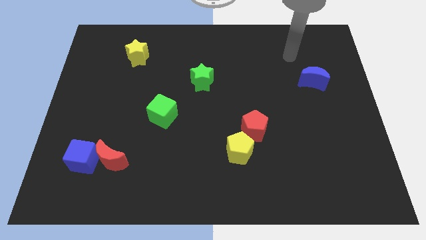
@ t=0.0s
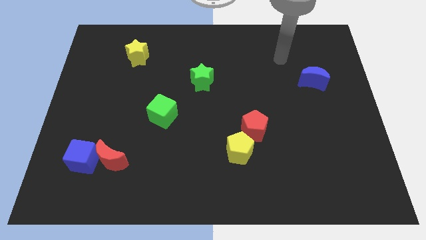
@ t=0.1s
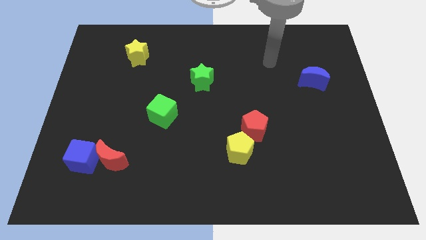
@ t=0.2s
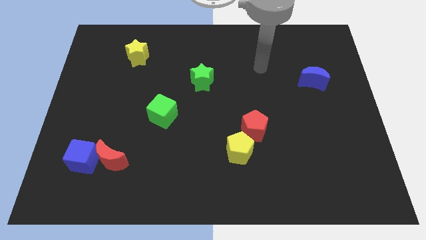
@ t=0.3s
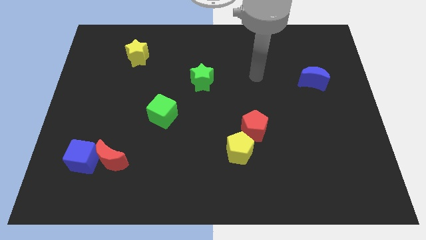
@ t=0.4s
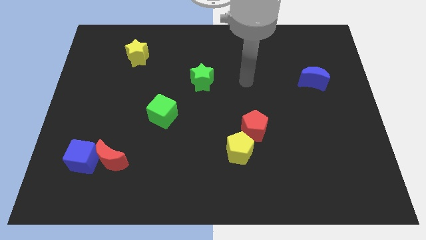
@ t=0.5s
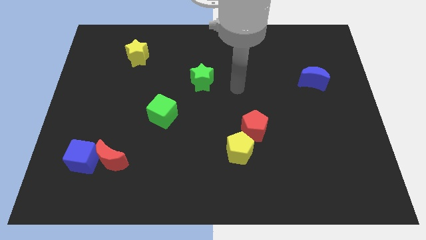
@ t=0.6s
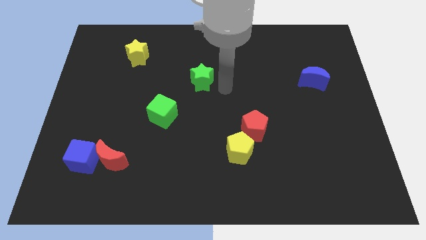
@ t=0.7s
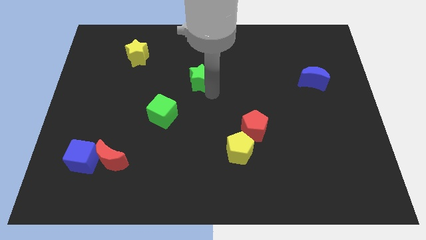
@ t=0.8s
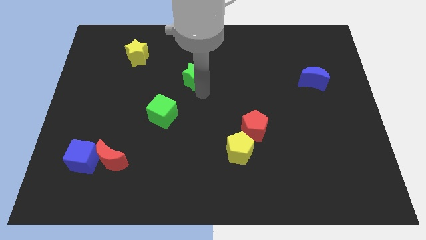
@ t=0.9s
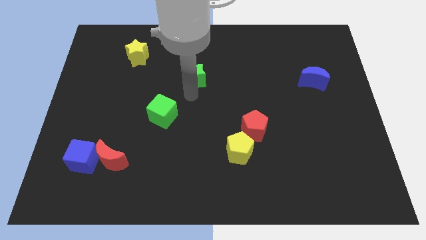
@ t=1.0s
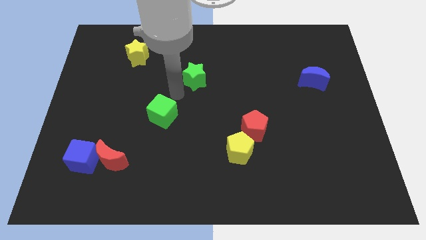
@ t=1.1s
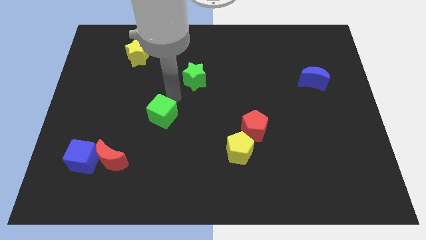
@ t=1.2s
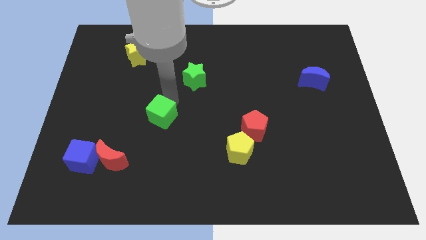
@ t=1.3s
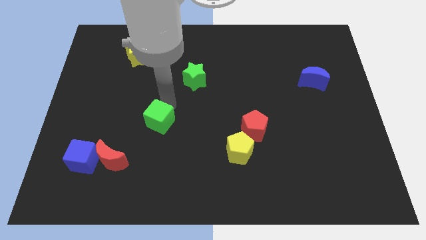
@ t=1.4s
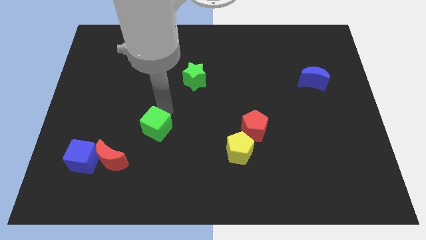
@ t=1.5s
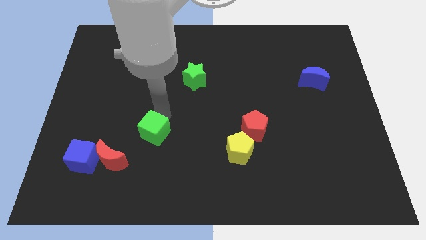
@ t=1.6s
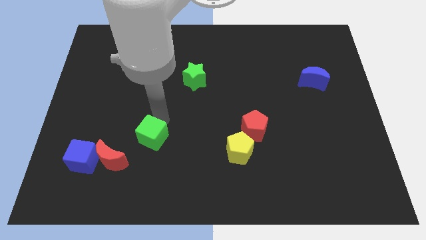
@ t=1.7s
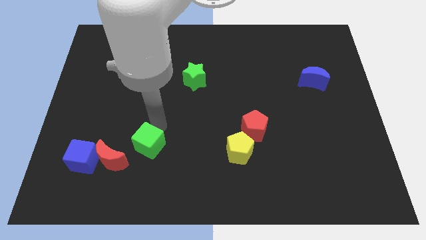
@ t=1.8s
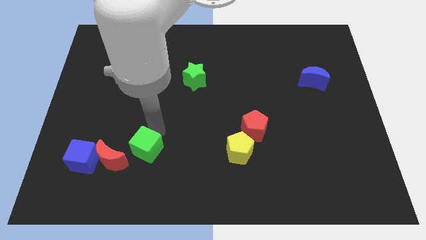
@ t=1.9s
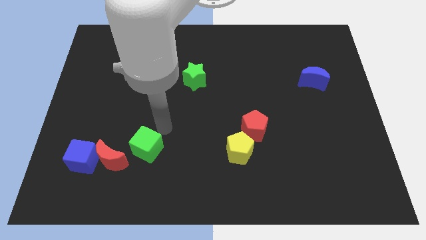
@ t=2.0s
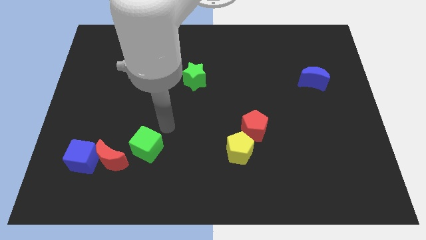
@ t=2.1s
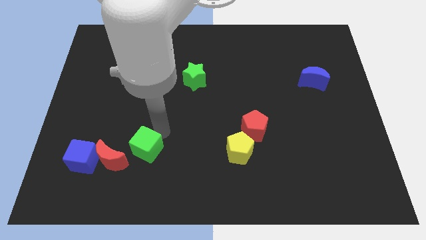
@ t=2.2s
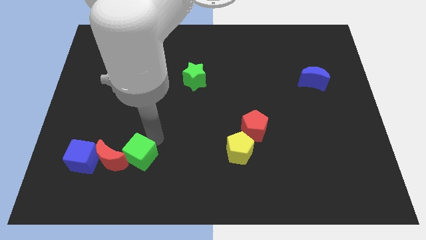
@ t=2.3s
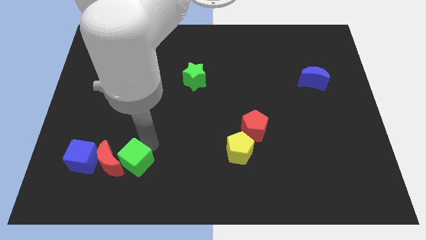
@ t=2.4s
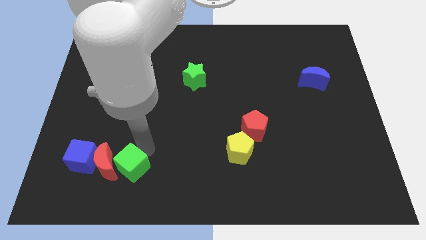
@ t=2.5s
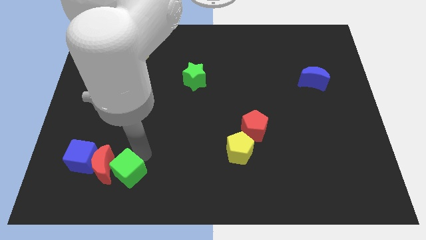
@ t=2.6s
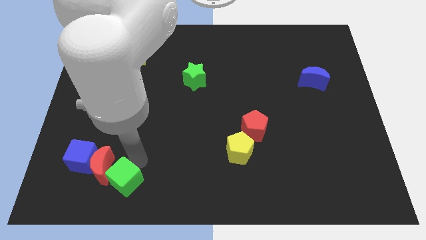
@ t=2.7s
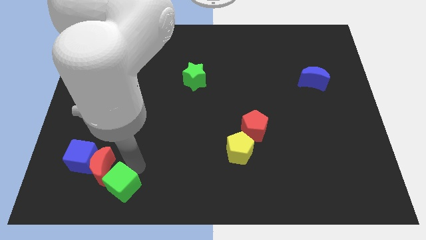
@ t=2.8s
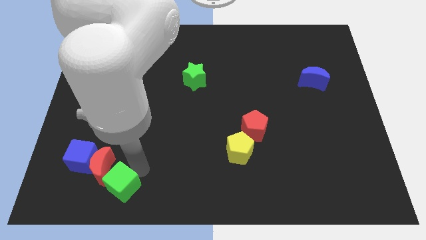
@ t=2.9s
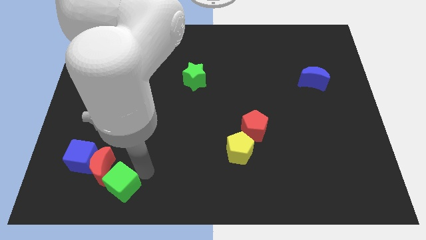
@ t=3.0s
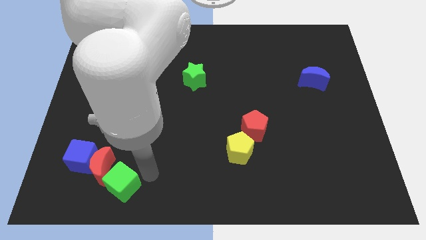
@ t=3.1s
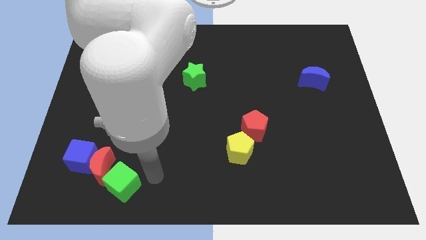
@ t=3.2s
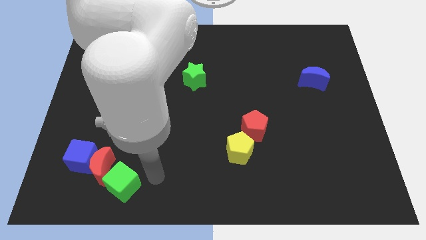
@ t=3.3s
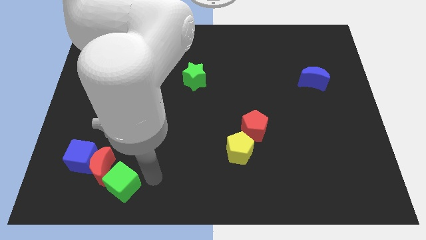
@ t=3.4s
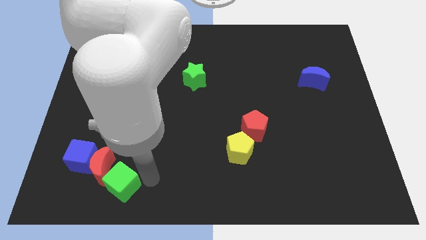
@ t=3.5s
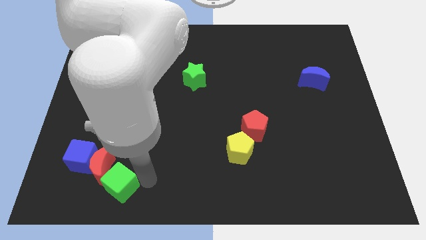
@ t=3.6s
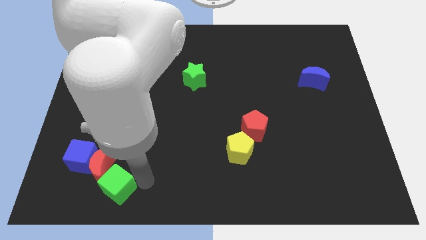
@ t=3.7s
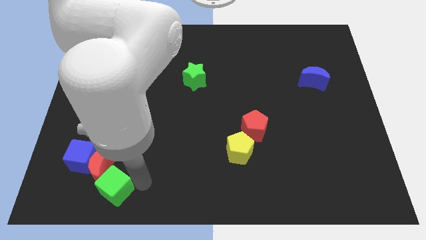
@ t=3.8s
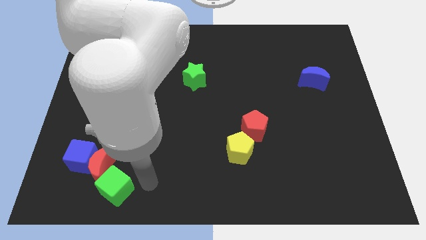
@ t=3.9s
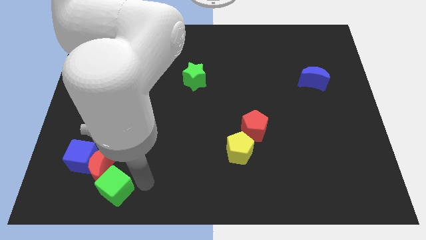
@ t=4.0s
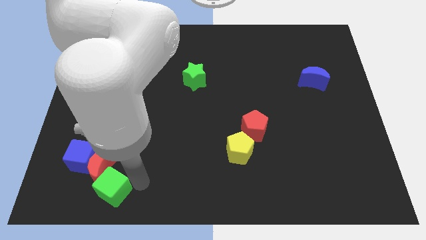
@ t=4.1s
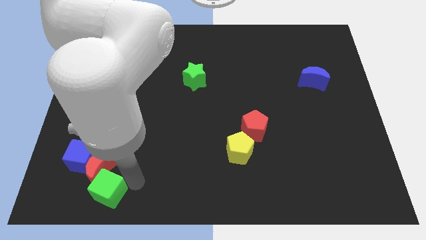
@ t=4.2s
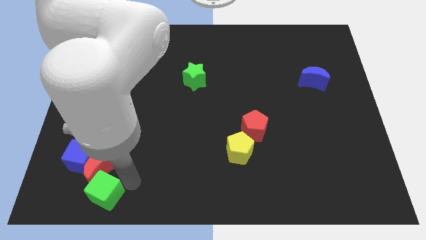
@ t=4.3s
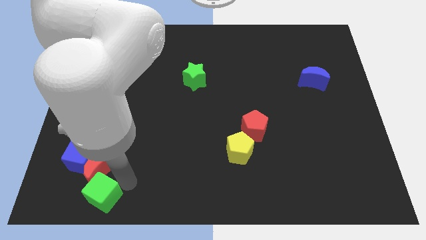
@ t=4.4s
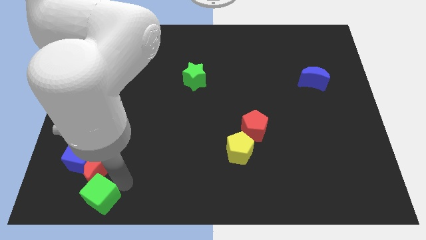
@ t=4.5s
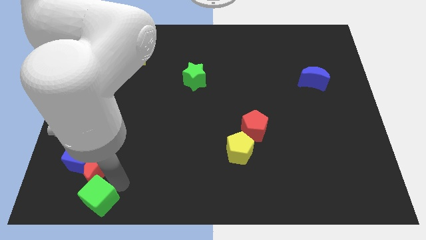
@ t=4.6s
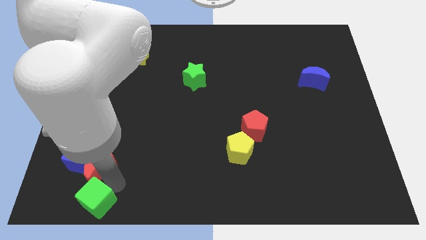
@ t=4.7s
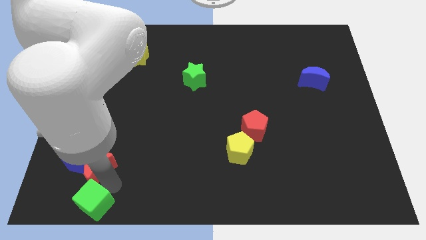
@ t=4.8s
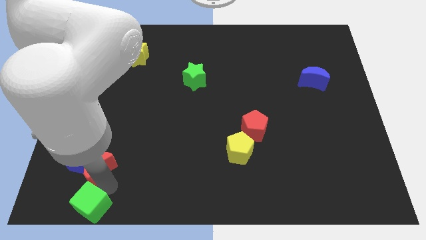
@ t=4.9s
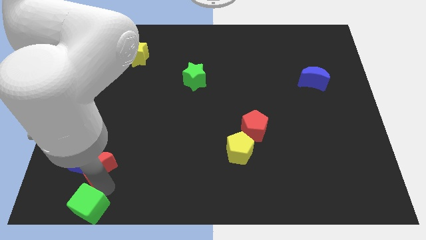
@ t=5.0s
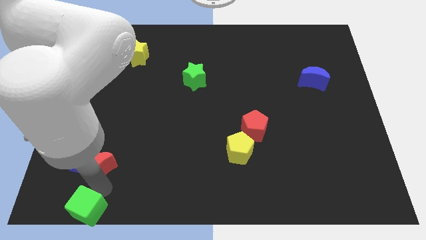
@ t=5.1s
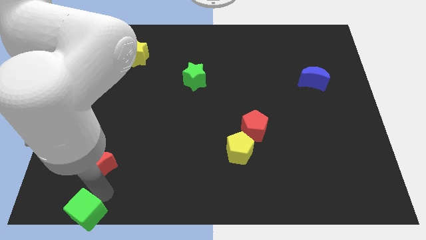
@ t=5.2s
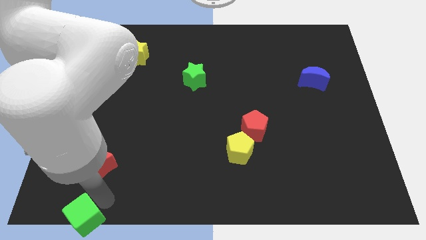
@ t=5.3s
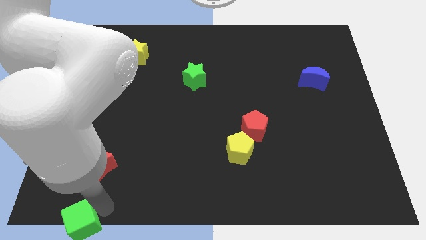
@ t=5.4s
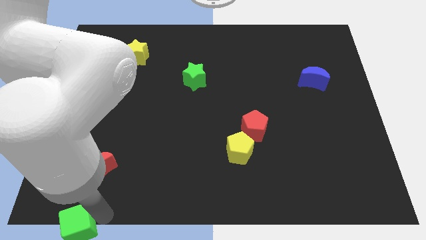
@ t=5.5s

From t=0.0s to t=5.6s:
push the green cube to the bottom left of the board
